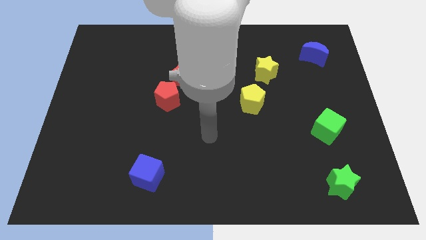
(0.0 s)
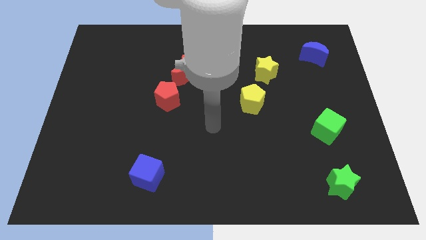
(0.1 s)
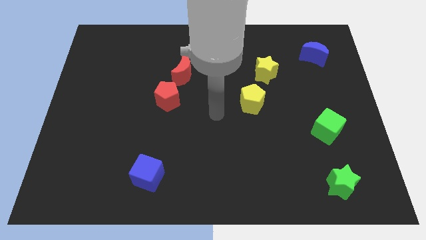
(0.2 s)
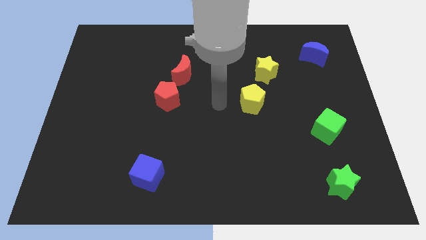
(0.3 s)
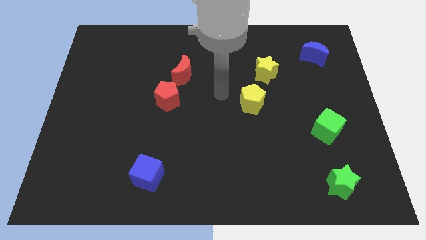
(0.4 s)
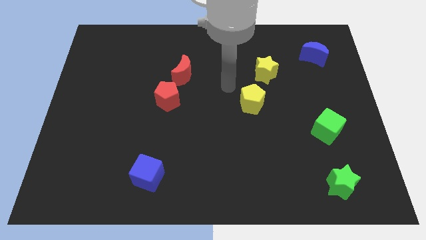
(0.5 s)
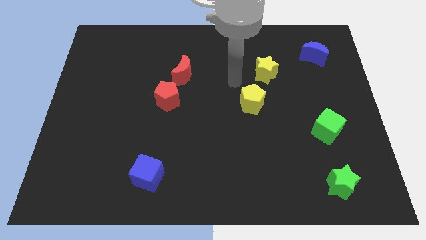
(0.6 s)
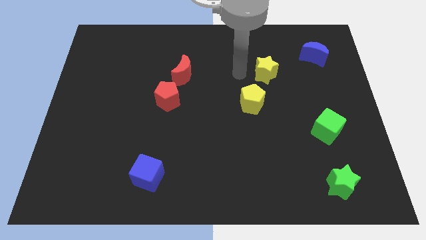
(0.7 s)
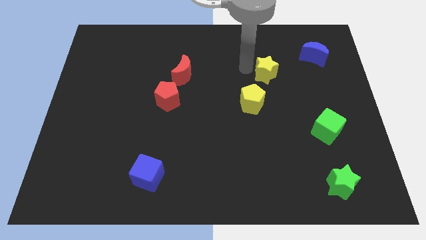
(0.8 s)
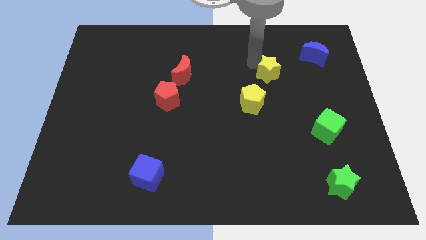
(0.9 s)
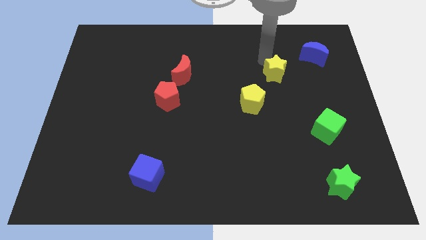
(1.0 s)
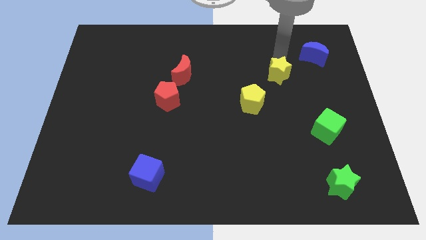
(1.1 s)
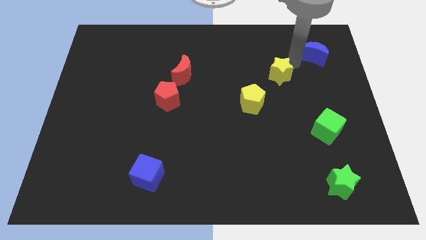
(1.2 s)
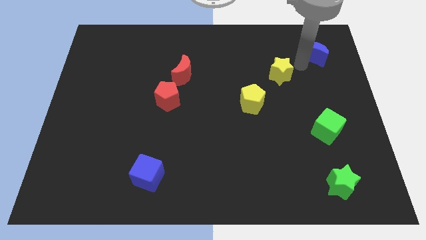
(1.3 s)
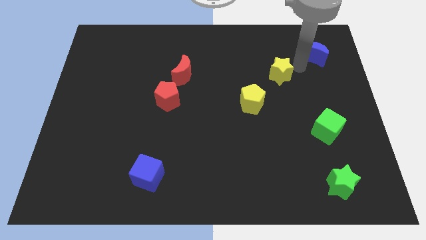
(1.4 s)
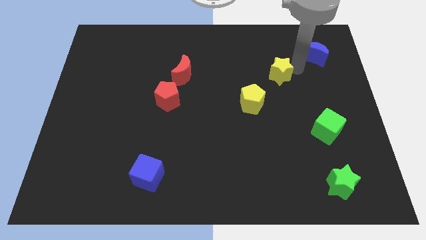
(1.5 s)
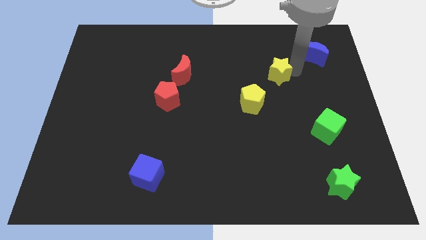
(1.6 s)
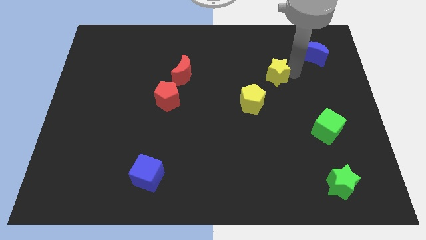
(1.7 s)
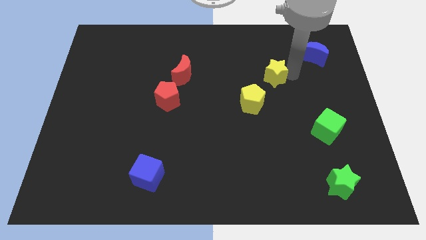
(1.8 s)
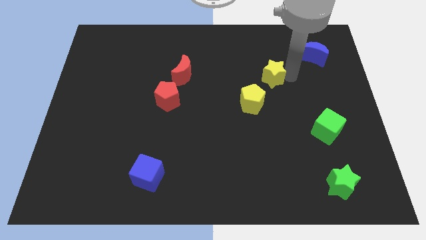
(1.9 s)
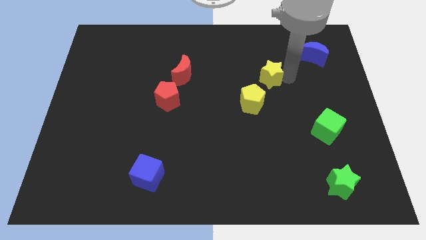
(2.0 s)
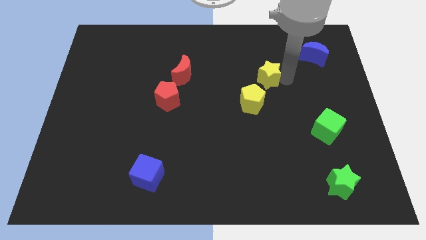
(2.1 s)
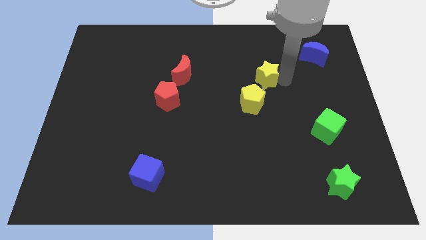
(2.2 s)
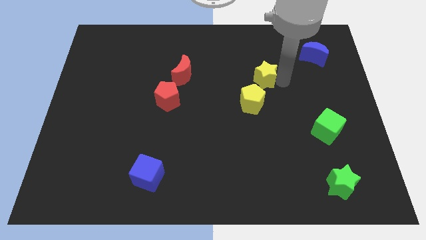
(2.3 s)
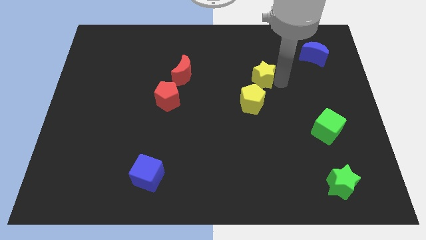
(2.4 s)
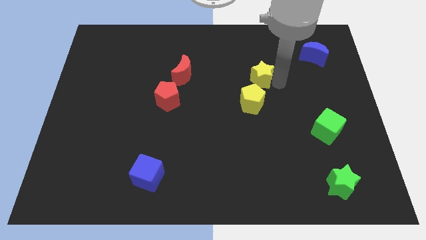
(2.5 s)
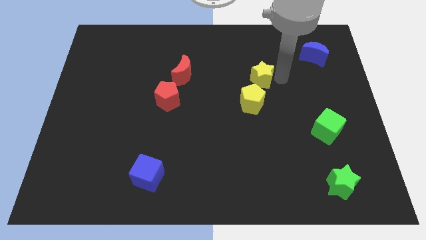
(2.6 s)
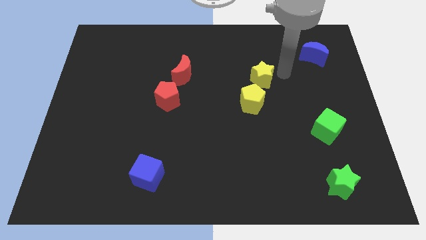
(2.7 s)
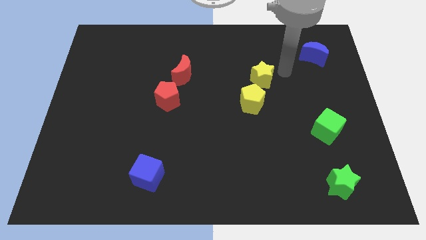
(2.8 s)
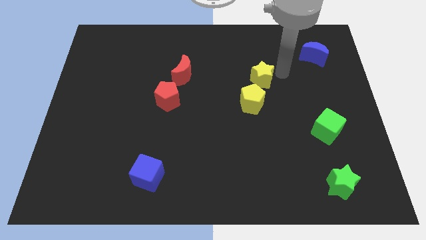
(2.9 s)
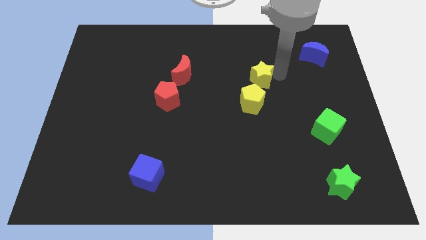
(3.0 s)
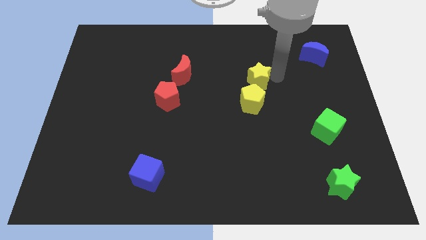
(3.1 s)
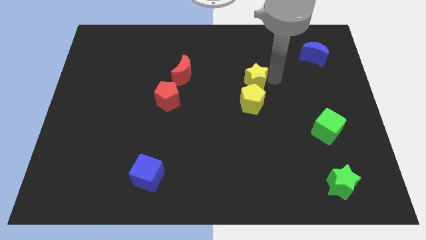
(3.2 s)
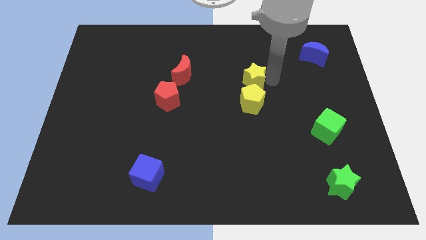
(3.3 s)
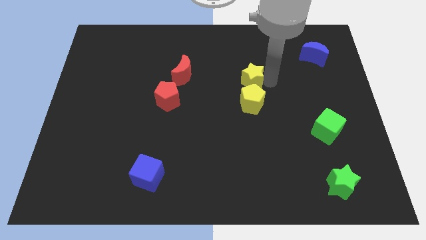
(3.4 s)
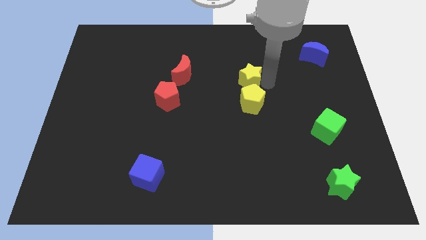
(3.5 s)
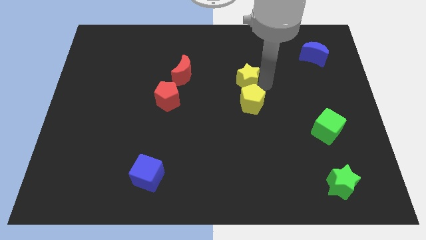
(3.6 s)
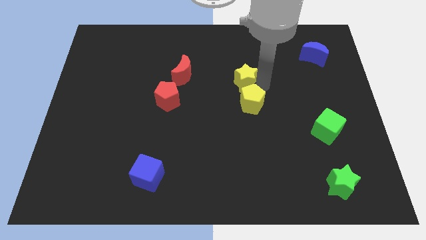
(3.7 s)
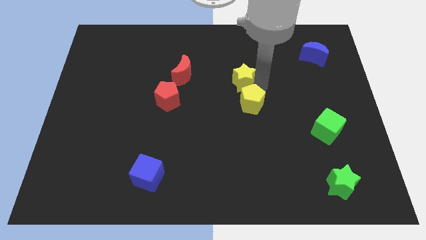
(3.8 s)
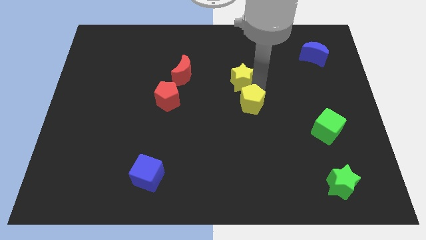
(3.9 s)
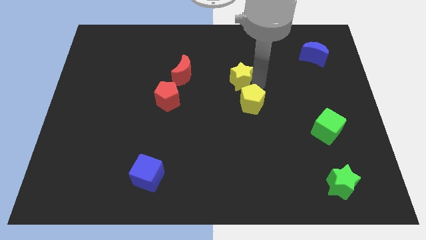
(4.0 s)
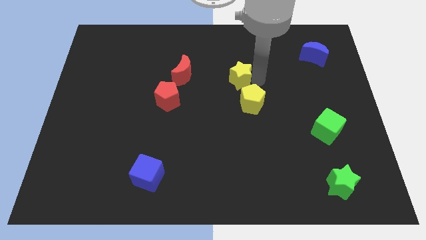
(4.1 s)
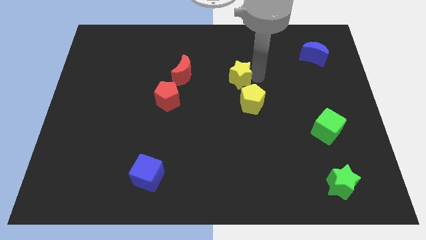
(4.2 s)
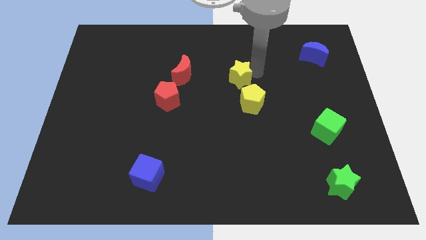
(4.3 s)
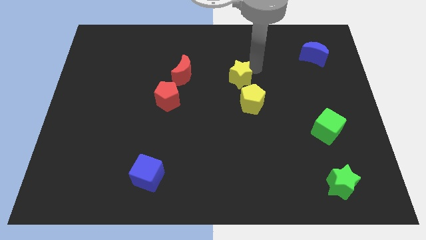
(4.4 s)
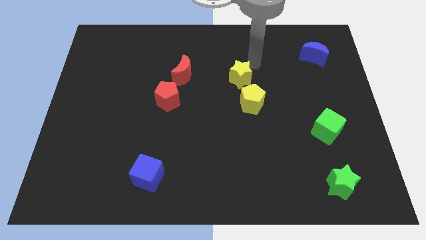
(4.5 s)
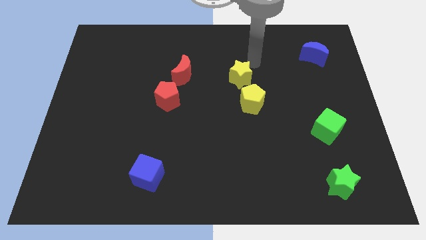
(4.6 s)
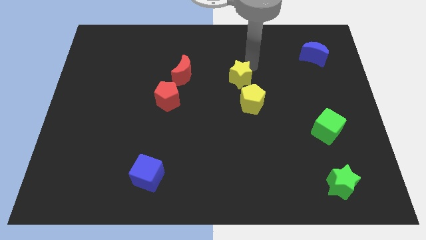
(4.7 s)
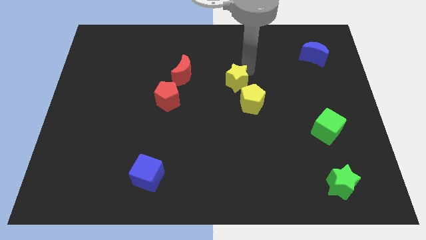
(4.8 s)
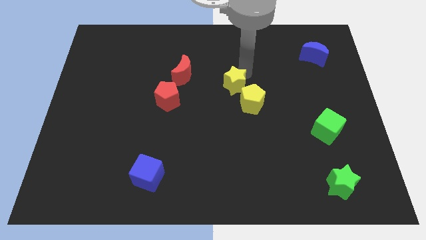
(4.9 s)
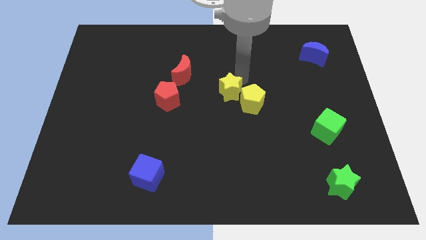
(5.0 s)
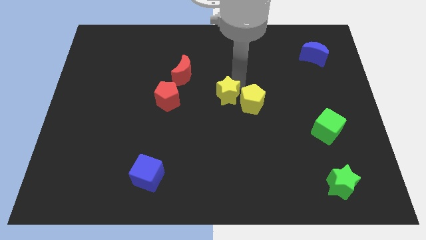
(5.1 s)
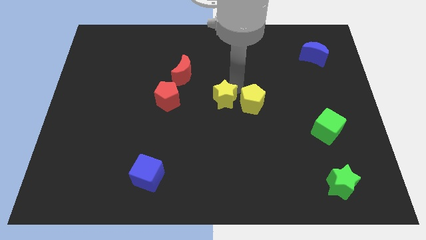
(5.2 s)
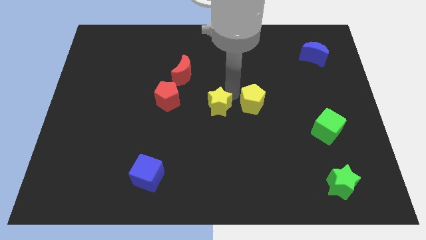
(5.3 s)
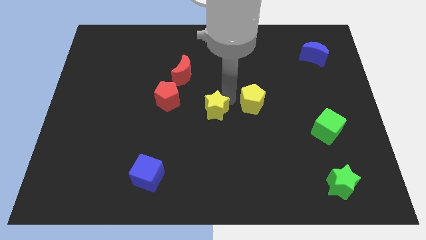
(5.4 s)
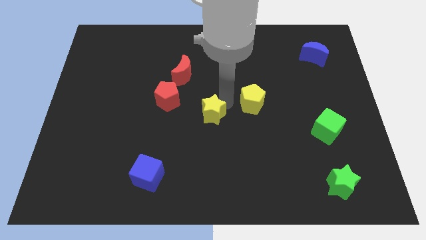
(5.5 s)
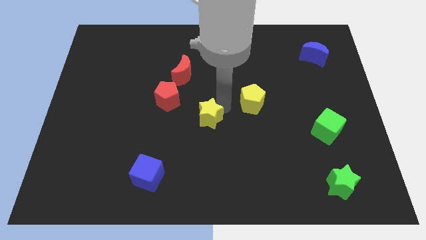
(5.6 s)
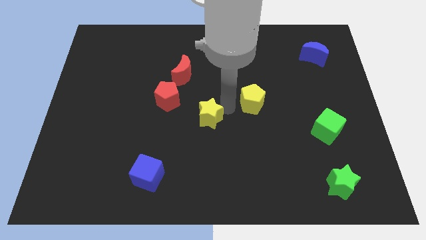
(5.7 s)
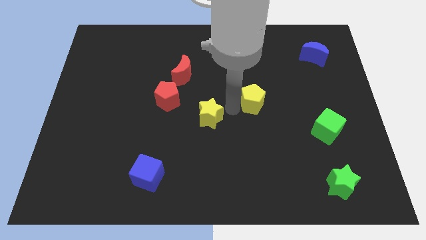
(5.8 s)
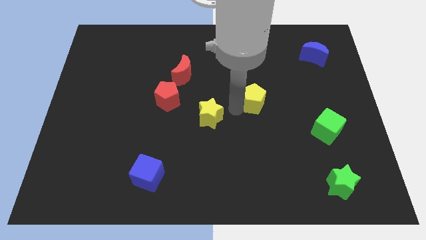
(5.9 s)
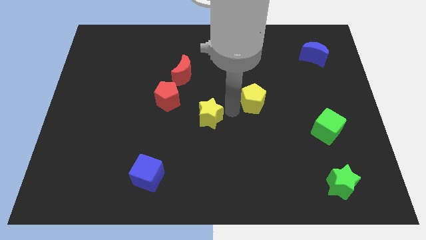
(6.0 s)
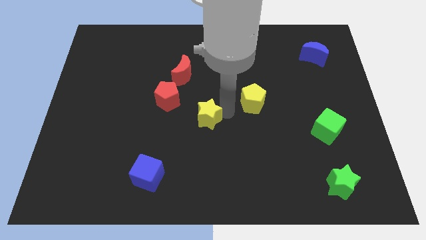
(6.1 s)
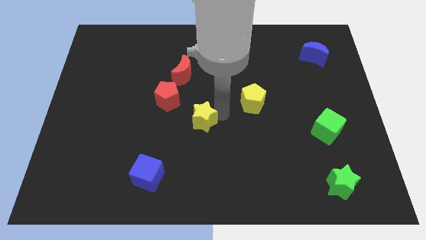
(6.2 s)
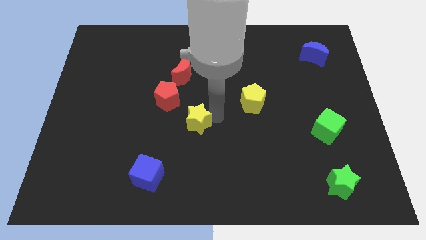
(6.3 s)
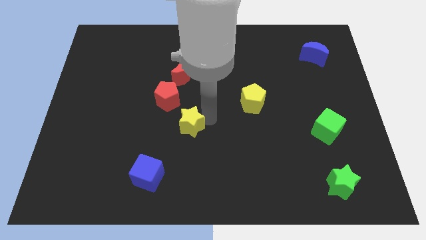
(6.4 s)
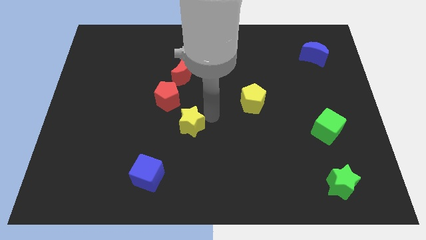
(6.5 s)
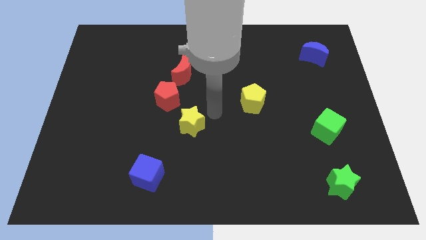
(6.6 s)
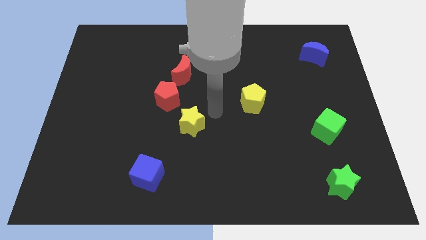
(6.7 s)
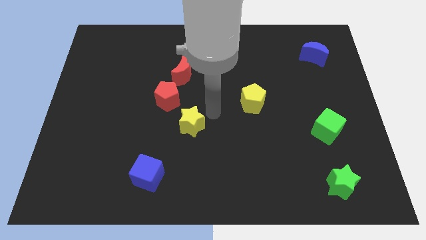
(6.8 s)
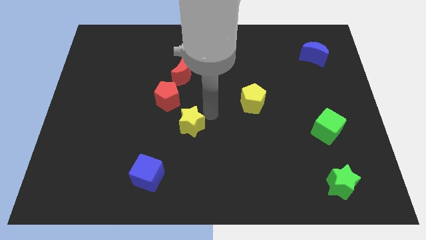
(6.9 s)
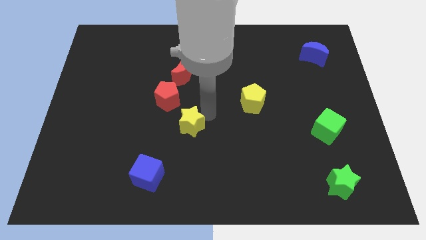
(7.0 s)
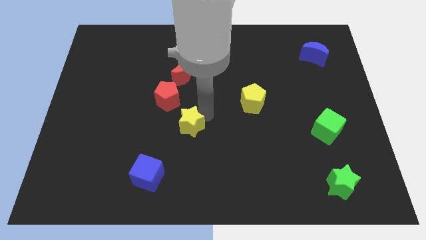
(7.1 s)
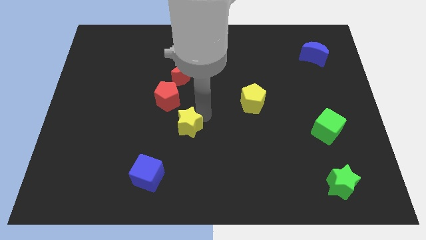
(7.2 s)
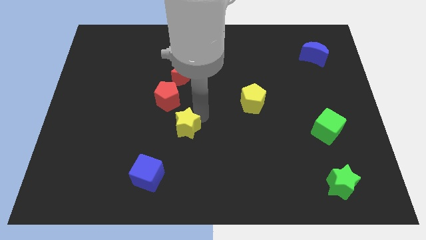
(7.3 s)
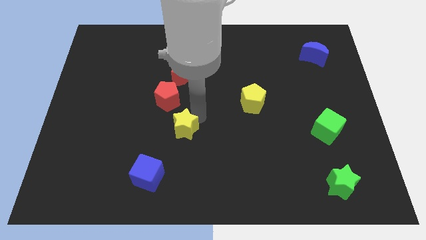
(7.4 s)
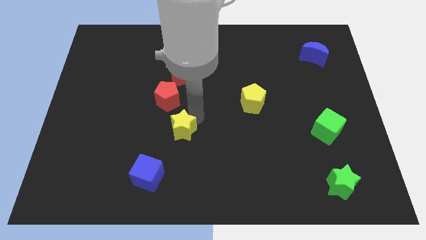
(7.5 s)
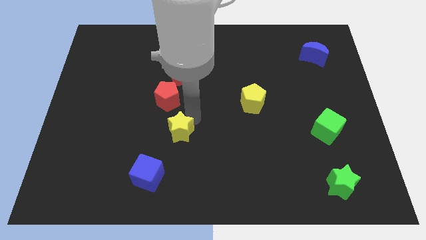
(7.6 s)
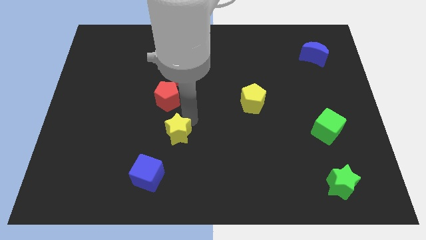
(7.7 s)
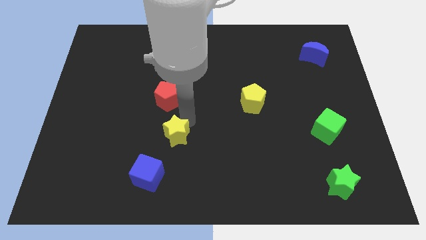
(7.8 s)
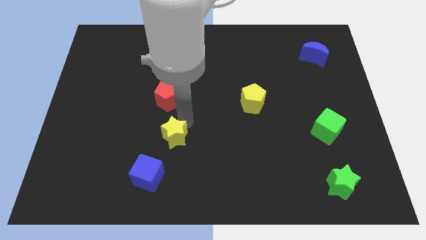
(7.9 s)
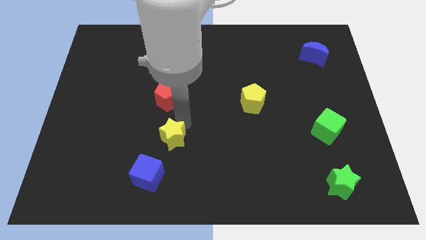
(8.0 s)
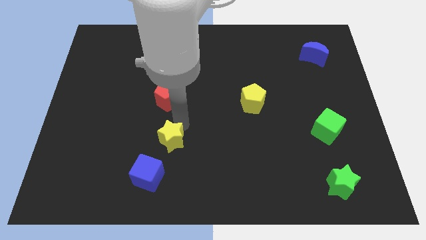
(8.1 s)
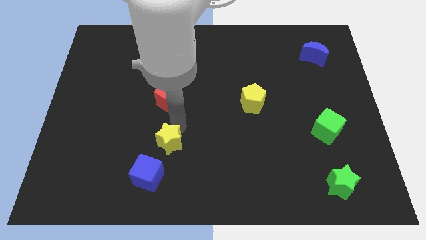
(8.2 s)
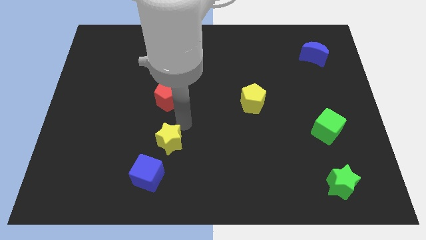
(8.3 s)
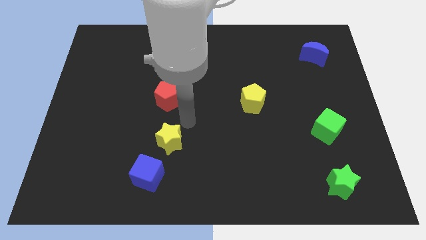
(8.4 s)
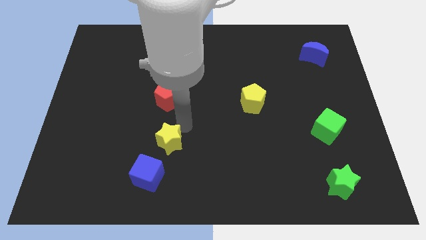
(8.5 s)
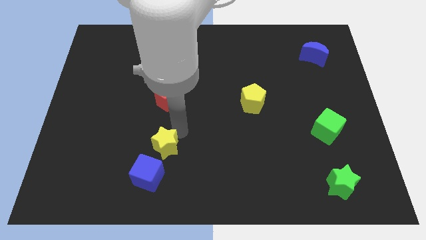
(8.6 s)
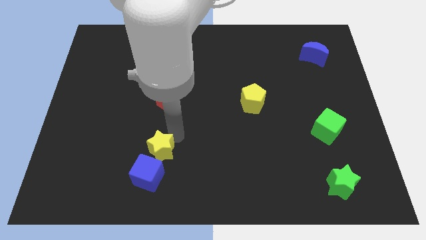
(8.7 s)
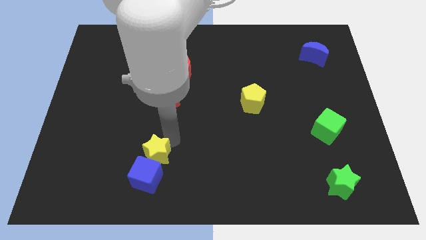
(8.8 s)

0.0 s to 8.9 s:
move the yellow star next to the blue cube
